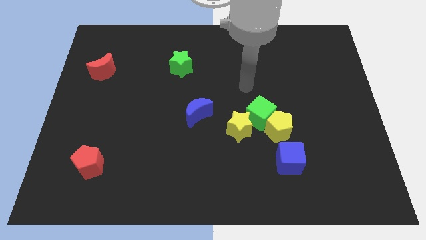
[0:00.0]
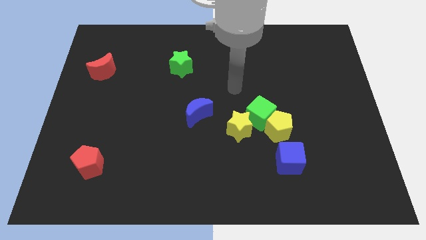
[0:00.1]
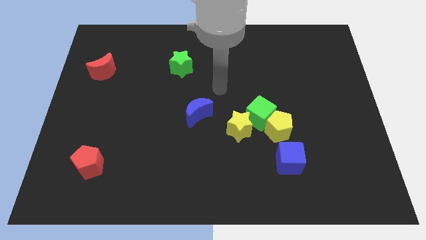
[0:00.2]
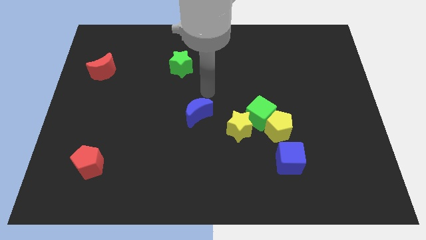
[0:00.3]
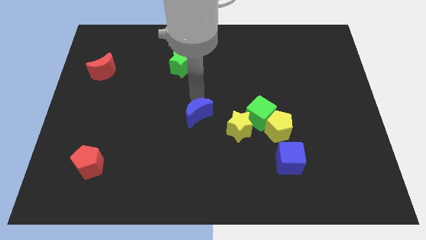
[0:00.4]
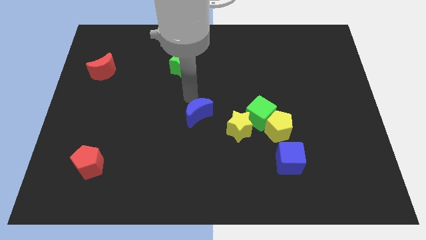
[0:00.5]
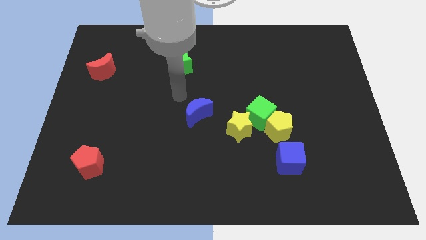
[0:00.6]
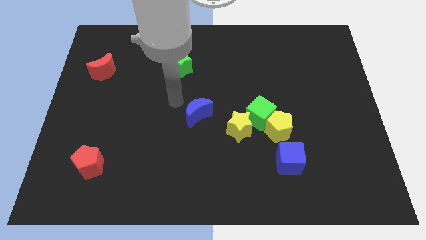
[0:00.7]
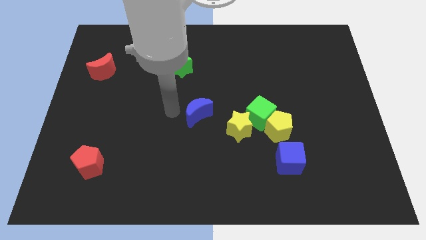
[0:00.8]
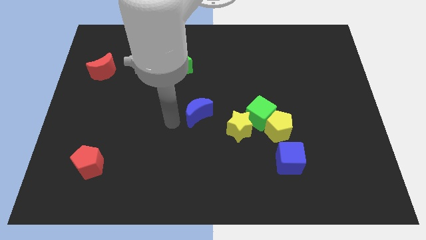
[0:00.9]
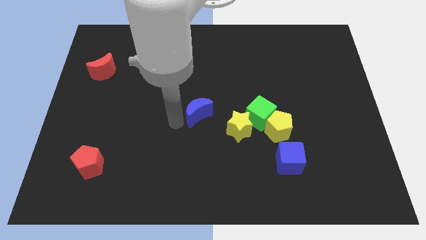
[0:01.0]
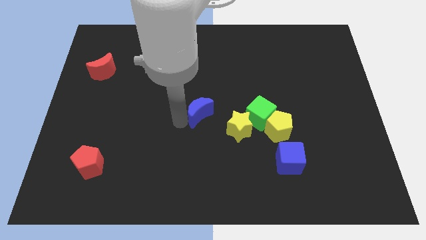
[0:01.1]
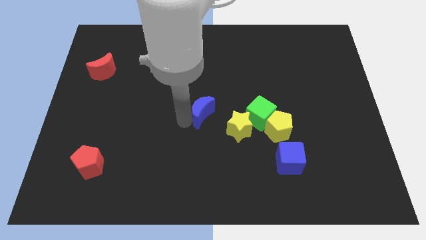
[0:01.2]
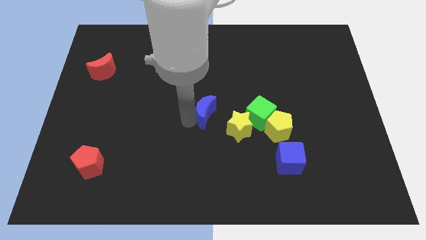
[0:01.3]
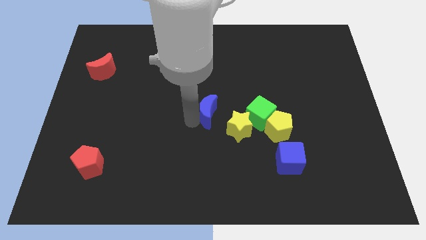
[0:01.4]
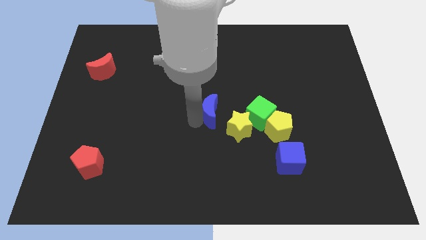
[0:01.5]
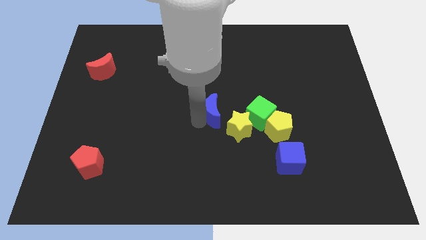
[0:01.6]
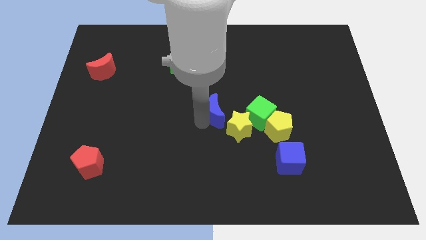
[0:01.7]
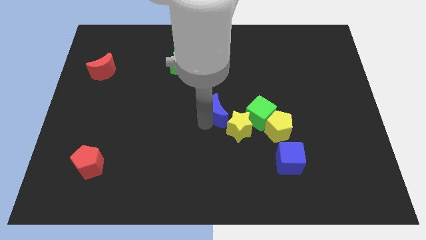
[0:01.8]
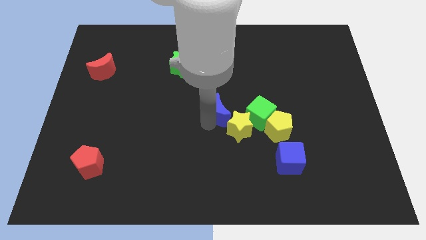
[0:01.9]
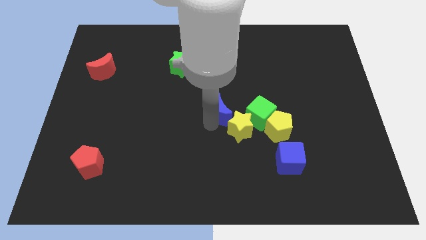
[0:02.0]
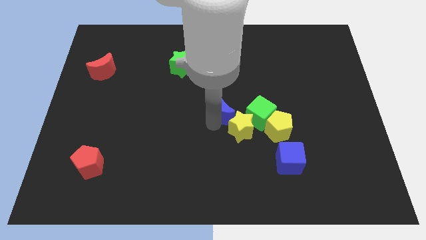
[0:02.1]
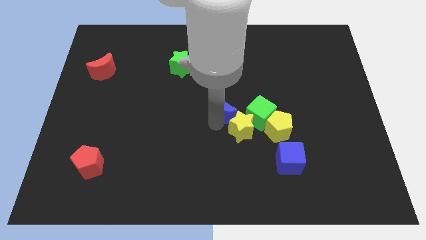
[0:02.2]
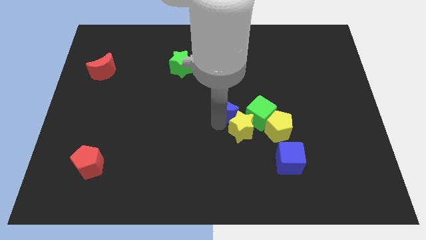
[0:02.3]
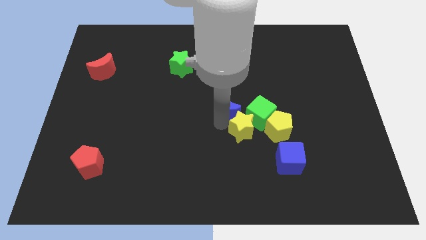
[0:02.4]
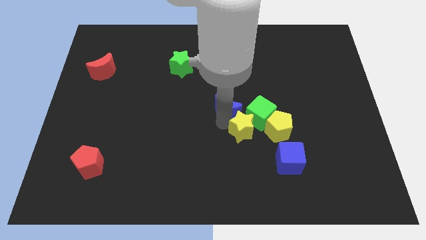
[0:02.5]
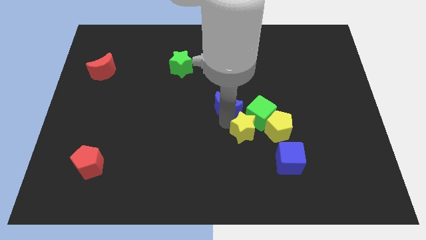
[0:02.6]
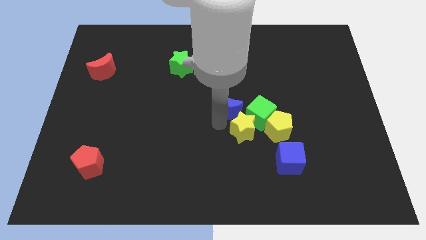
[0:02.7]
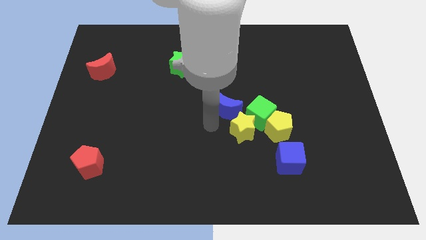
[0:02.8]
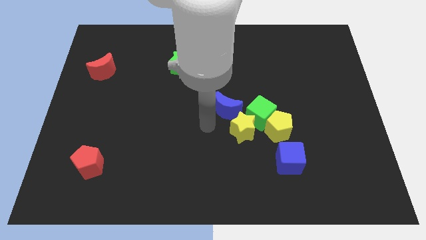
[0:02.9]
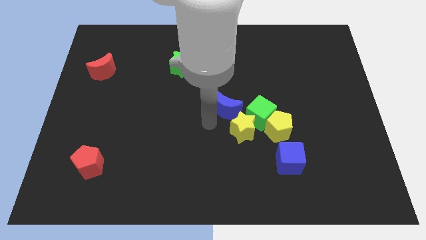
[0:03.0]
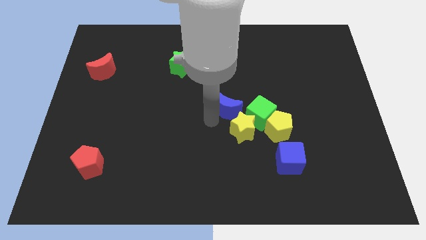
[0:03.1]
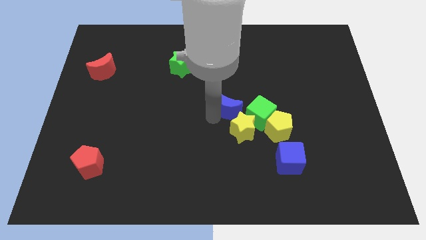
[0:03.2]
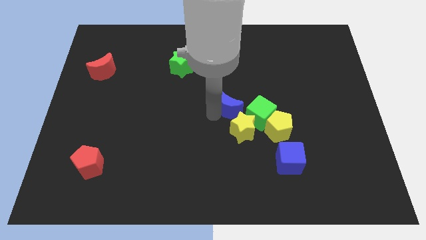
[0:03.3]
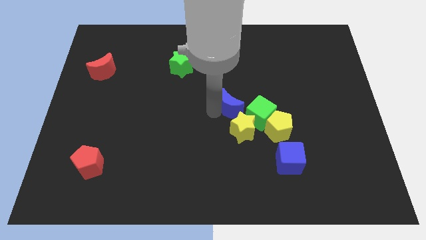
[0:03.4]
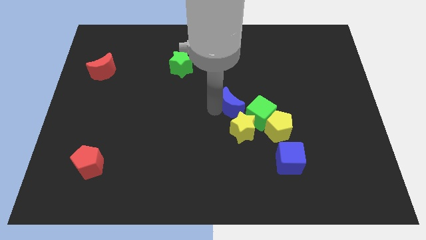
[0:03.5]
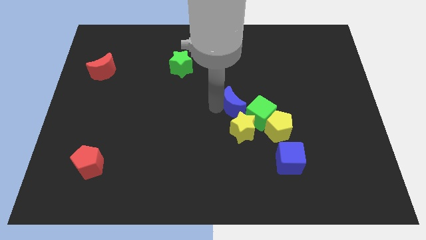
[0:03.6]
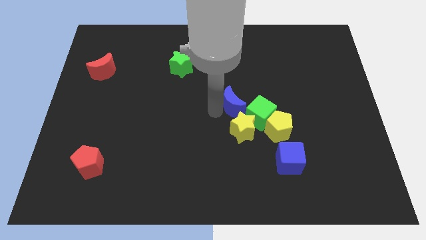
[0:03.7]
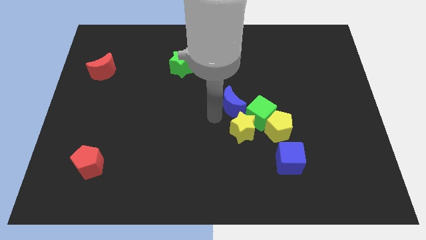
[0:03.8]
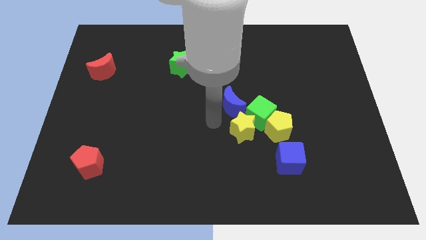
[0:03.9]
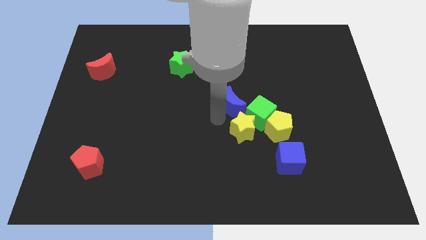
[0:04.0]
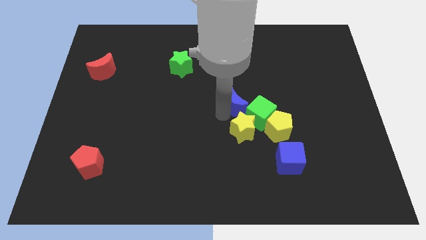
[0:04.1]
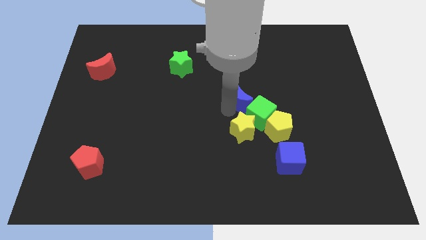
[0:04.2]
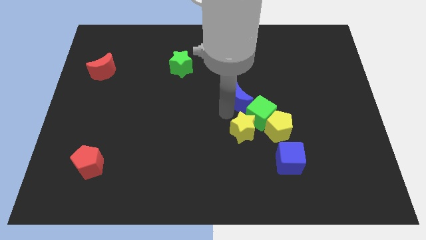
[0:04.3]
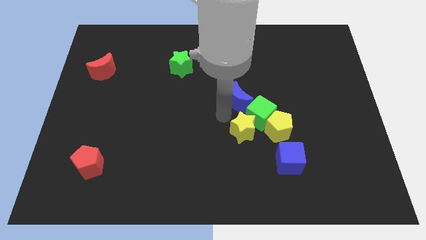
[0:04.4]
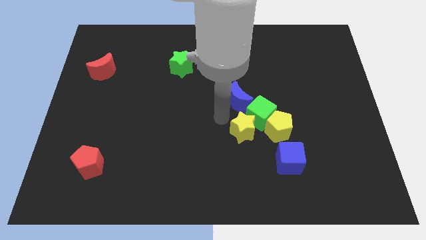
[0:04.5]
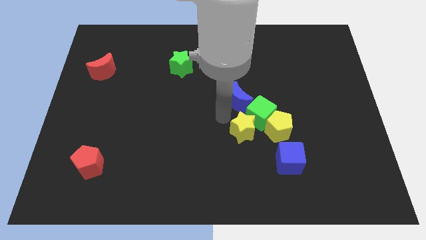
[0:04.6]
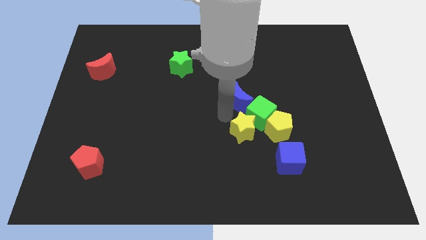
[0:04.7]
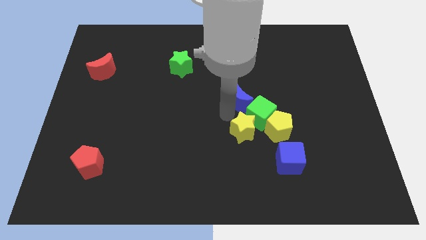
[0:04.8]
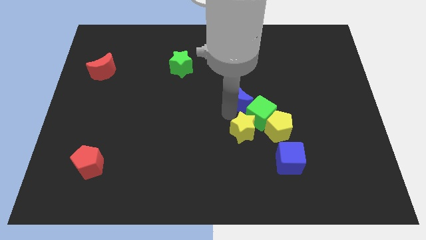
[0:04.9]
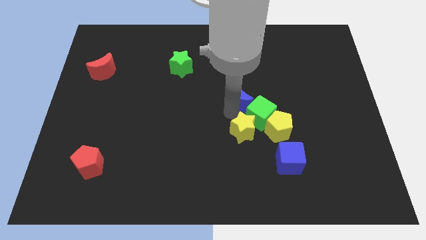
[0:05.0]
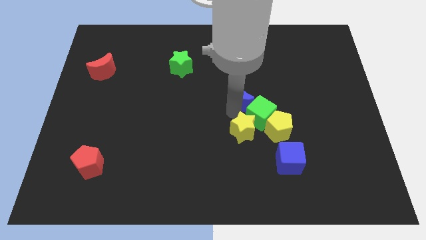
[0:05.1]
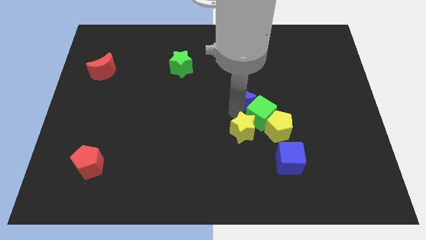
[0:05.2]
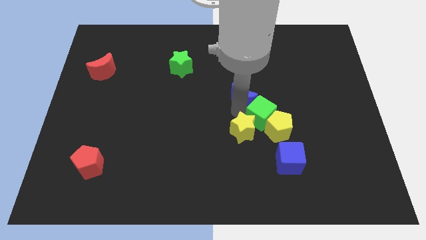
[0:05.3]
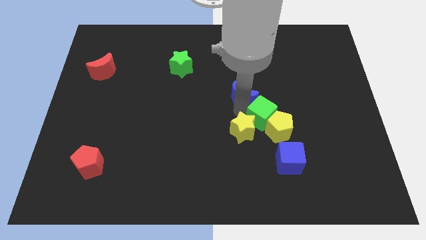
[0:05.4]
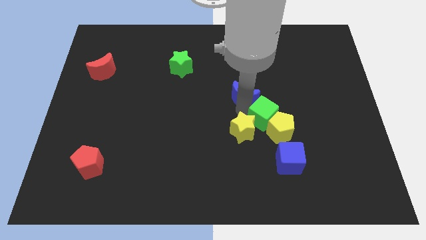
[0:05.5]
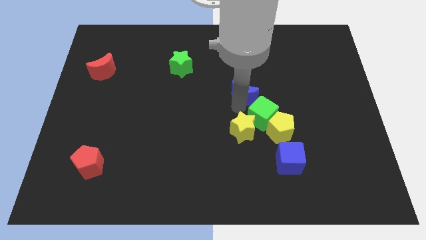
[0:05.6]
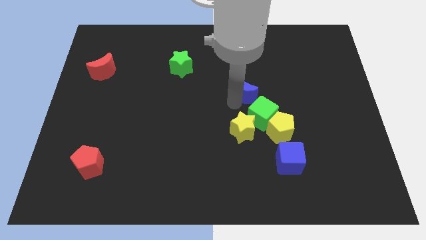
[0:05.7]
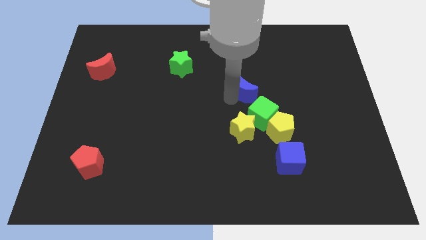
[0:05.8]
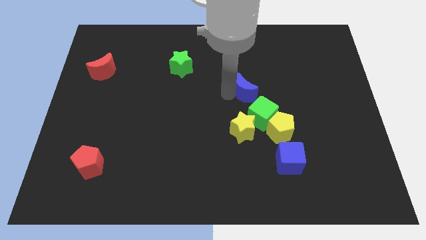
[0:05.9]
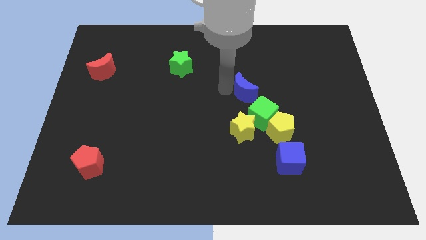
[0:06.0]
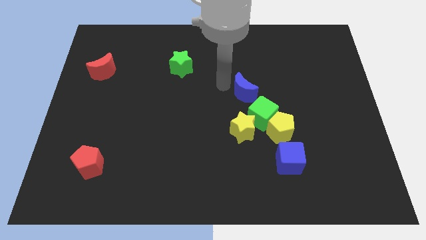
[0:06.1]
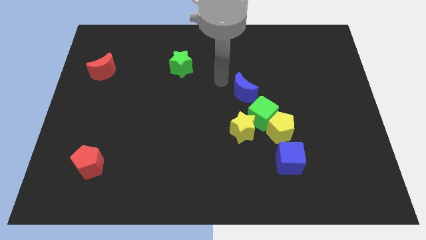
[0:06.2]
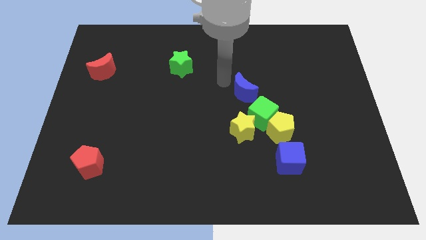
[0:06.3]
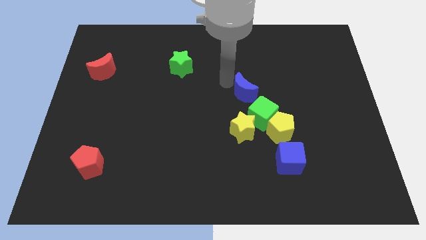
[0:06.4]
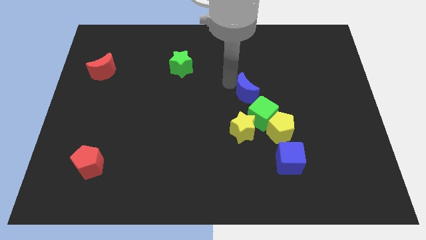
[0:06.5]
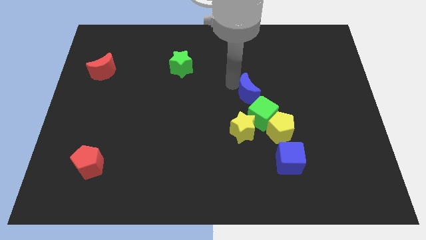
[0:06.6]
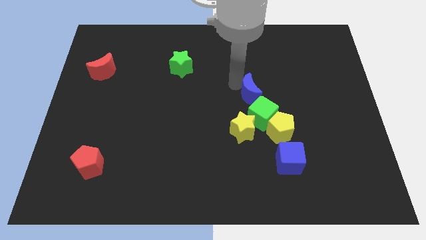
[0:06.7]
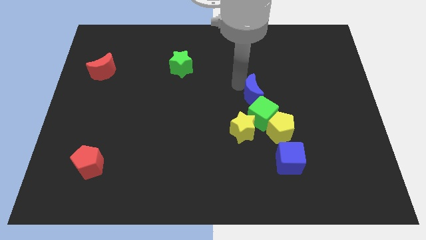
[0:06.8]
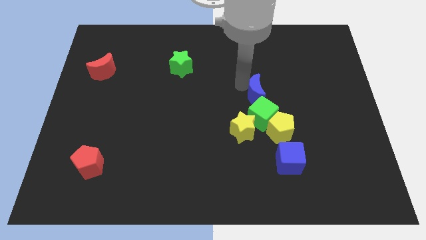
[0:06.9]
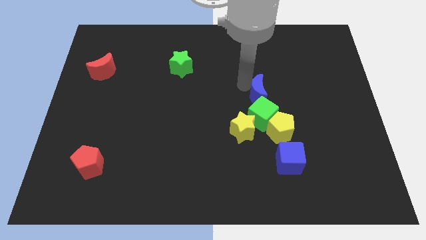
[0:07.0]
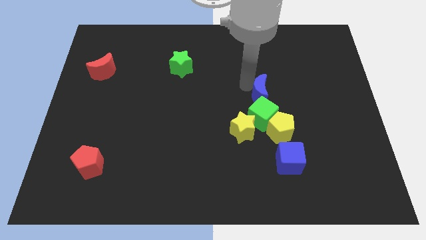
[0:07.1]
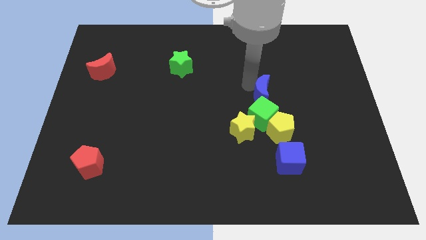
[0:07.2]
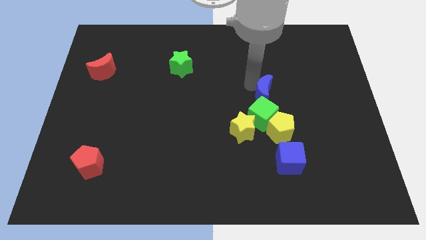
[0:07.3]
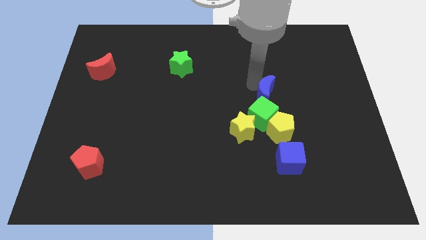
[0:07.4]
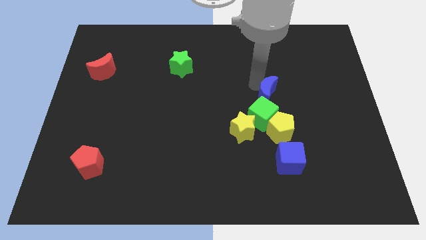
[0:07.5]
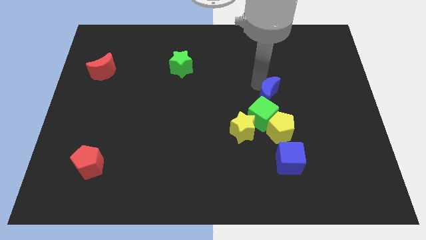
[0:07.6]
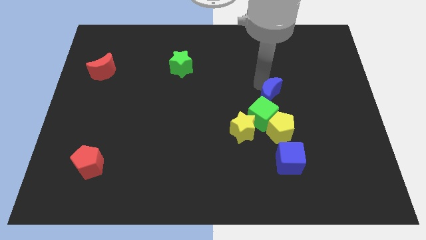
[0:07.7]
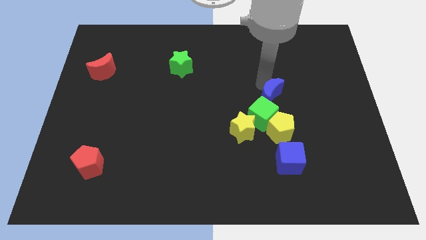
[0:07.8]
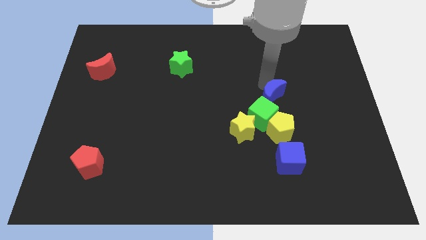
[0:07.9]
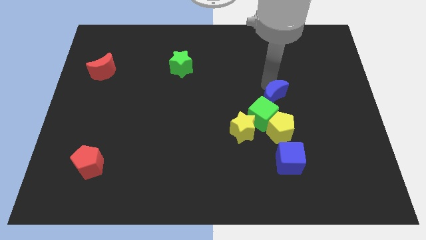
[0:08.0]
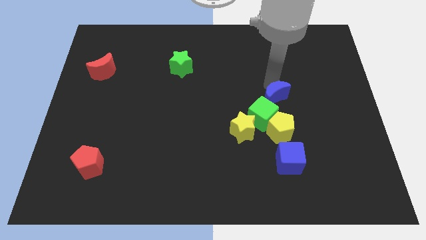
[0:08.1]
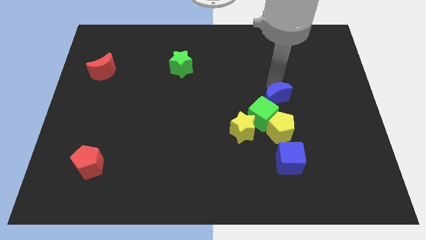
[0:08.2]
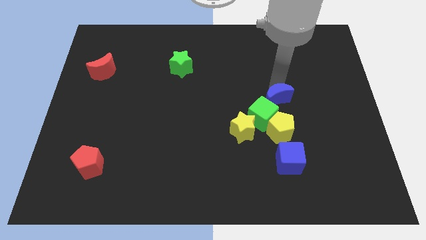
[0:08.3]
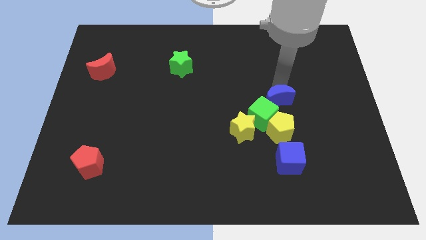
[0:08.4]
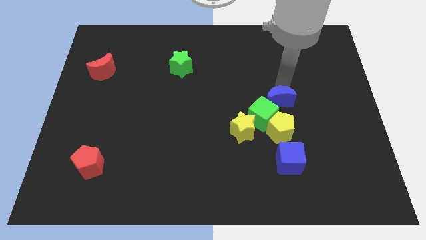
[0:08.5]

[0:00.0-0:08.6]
move the blue moon to the top side of the blue cube
